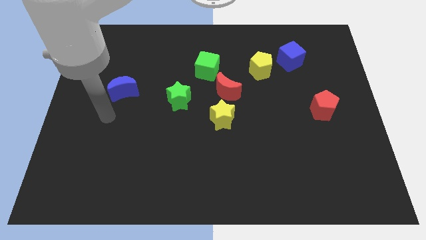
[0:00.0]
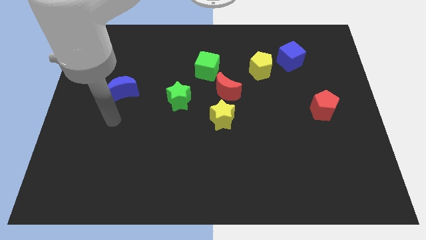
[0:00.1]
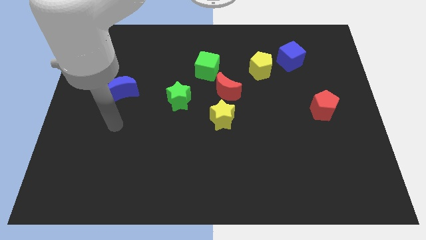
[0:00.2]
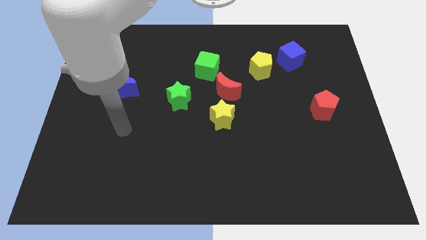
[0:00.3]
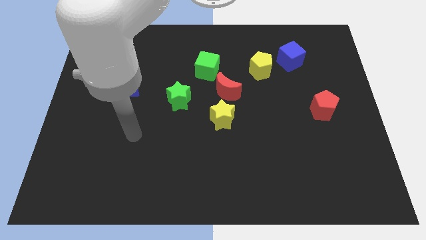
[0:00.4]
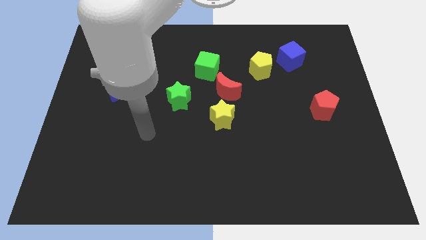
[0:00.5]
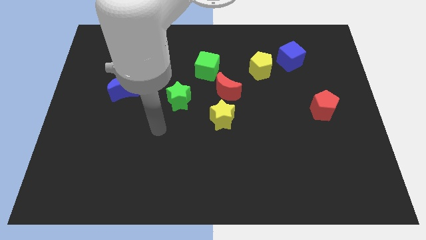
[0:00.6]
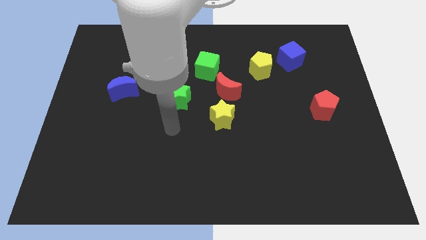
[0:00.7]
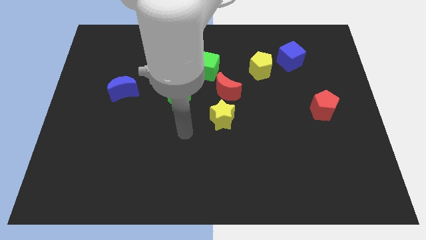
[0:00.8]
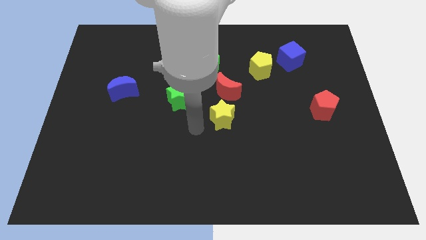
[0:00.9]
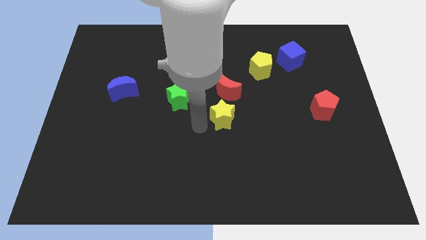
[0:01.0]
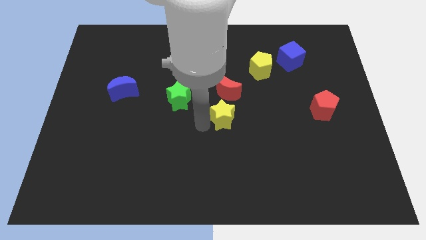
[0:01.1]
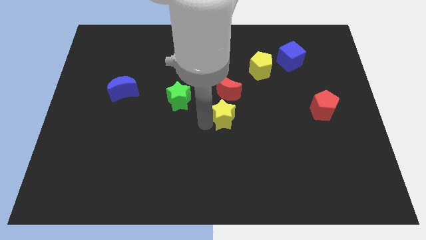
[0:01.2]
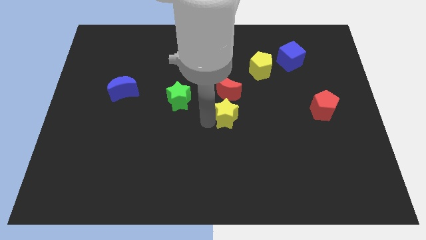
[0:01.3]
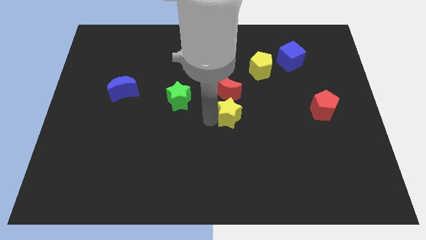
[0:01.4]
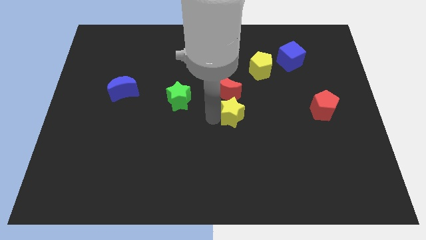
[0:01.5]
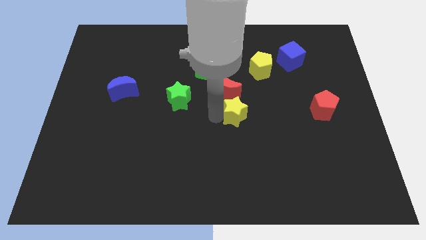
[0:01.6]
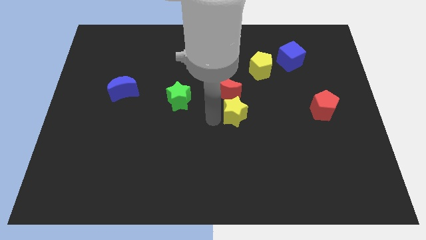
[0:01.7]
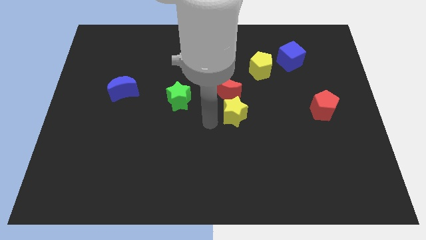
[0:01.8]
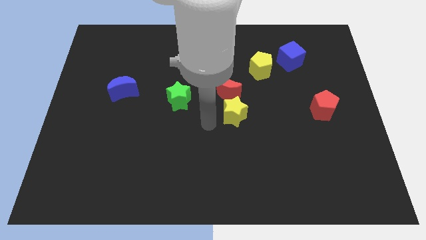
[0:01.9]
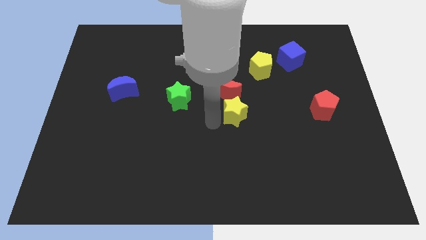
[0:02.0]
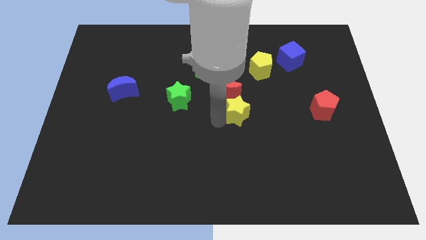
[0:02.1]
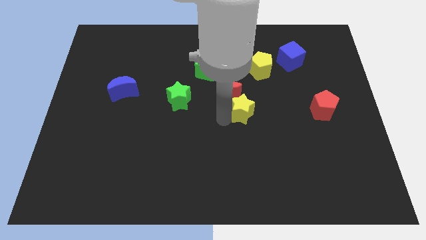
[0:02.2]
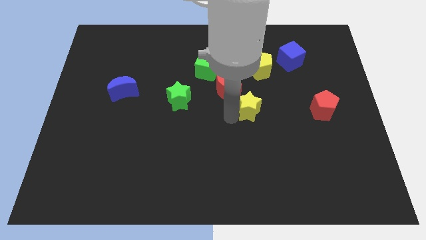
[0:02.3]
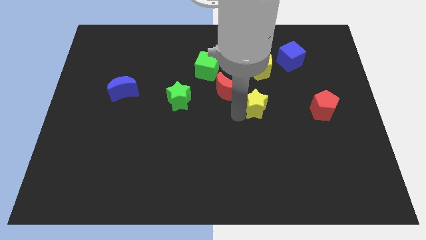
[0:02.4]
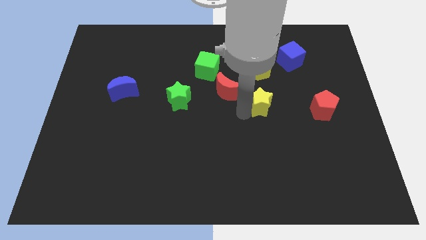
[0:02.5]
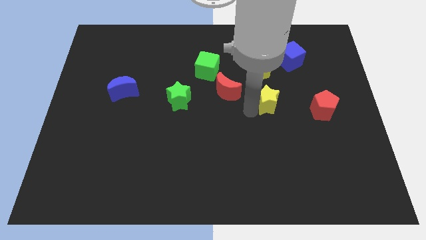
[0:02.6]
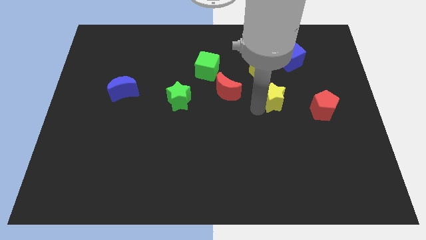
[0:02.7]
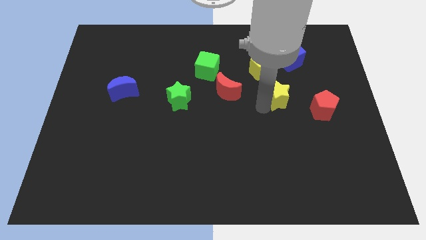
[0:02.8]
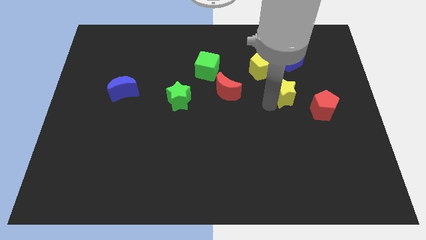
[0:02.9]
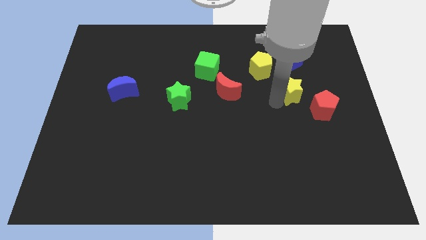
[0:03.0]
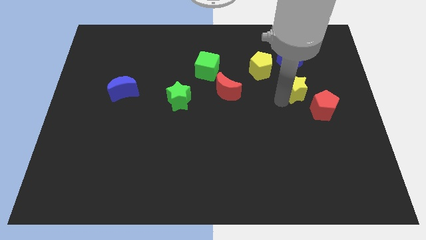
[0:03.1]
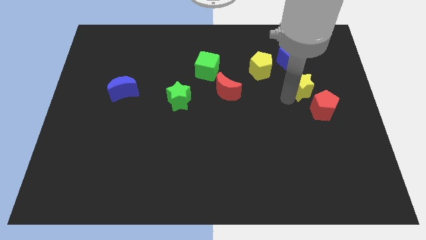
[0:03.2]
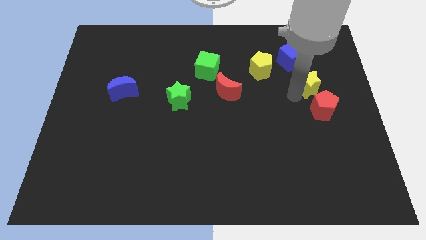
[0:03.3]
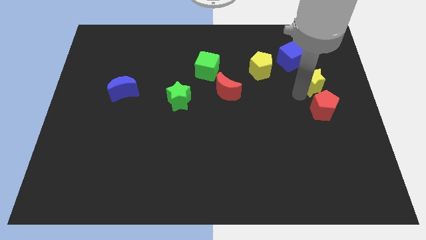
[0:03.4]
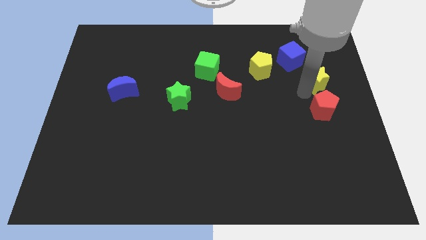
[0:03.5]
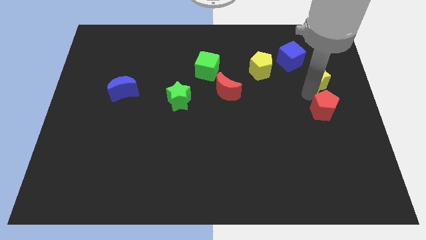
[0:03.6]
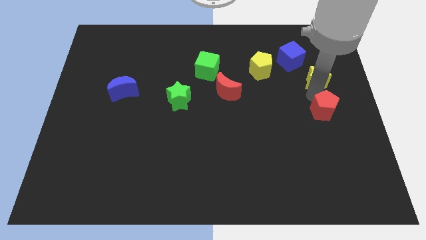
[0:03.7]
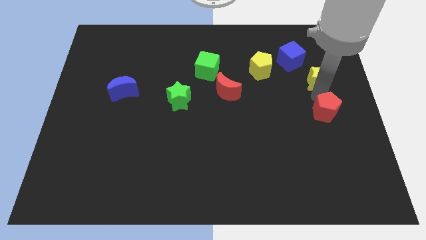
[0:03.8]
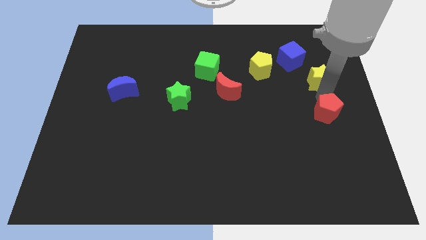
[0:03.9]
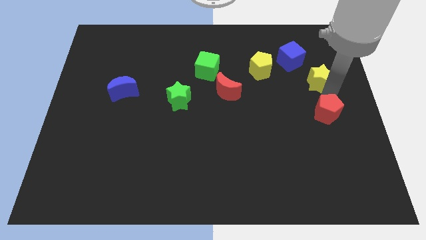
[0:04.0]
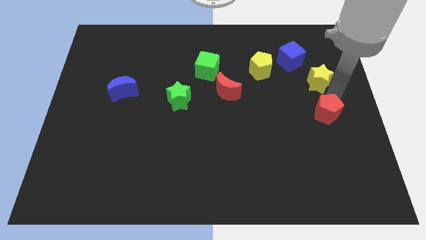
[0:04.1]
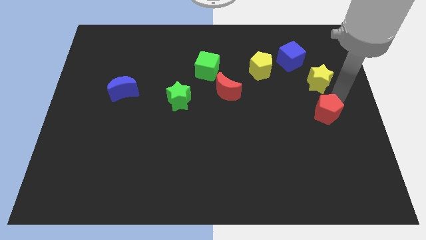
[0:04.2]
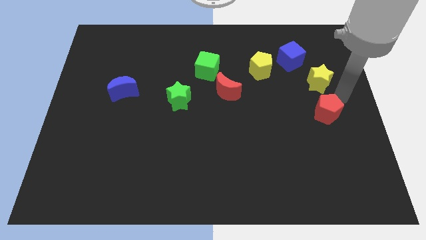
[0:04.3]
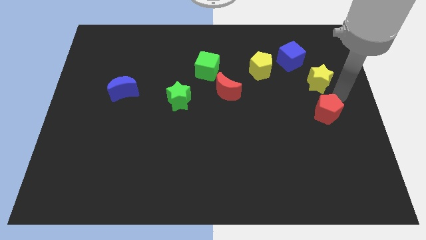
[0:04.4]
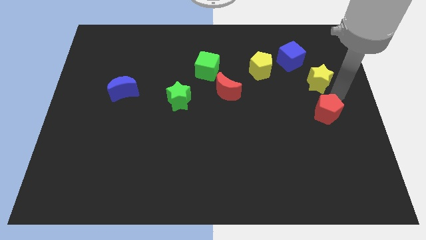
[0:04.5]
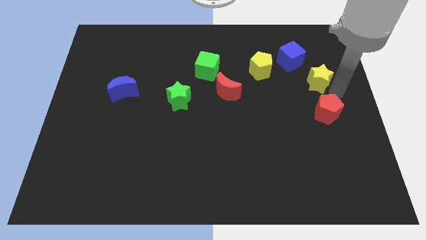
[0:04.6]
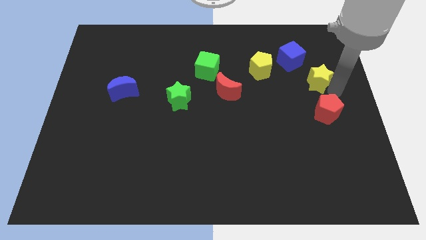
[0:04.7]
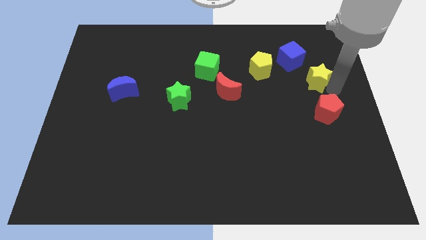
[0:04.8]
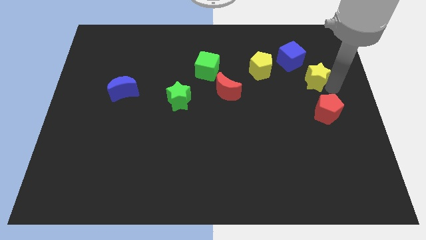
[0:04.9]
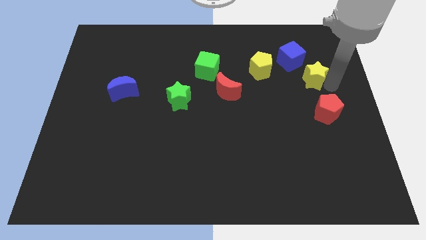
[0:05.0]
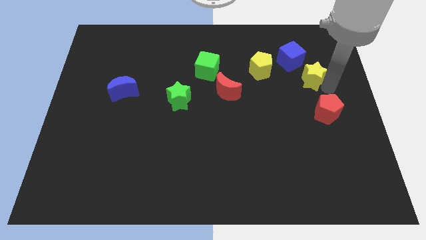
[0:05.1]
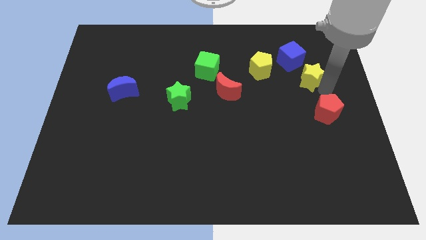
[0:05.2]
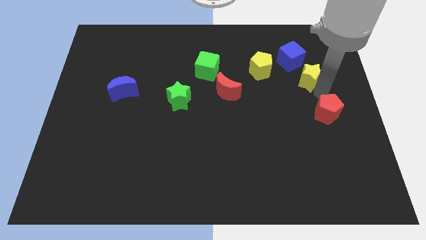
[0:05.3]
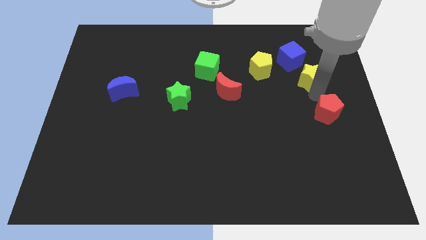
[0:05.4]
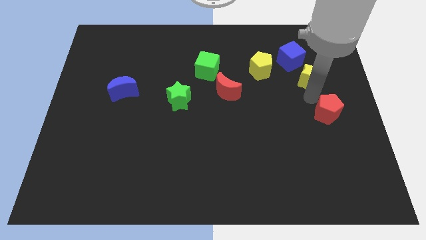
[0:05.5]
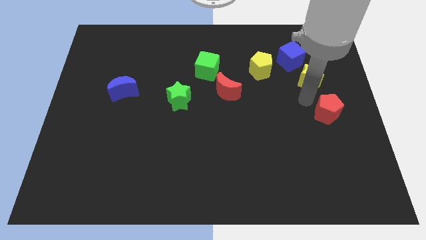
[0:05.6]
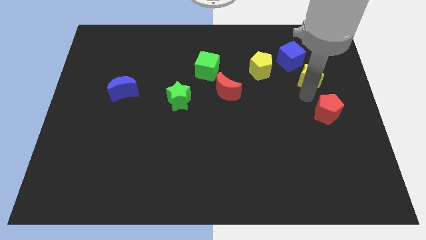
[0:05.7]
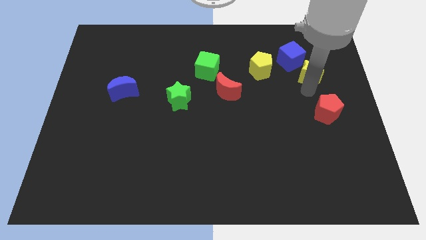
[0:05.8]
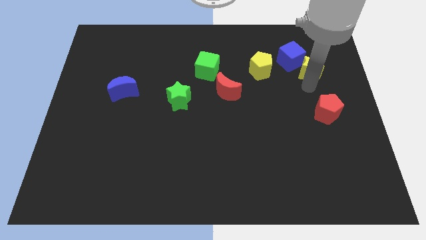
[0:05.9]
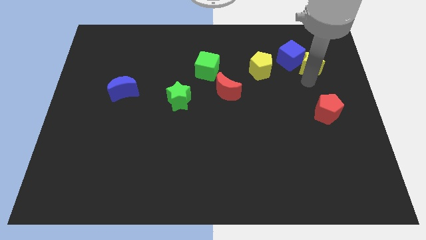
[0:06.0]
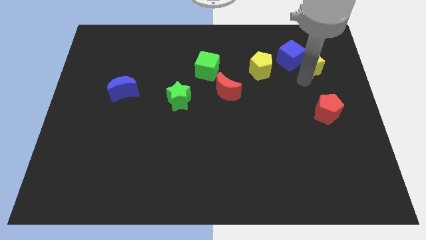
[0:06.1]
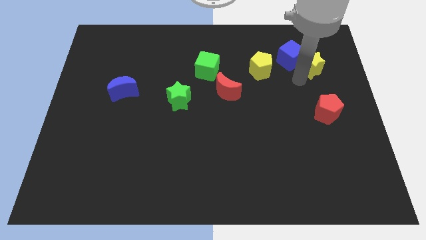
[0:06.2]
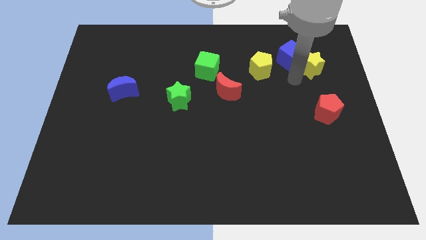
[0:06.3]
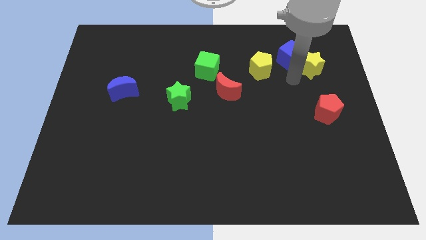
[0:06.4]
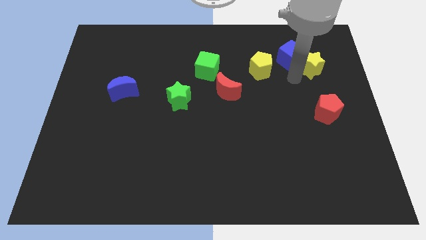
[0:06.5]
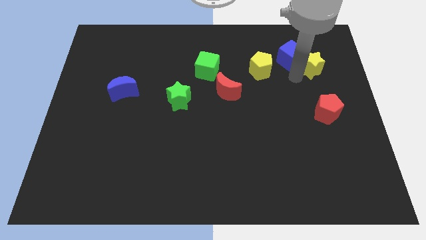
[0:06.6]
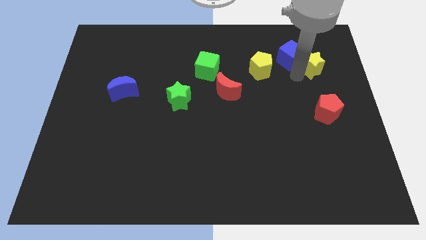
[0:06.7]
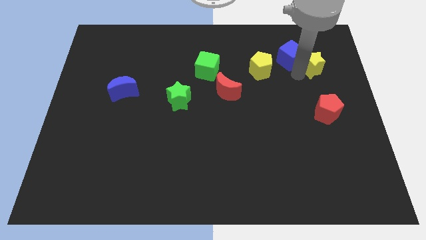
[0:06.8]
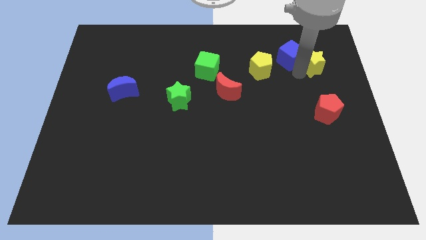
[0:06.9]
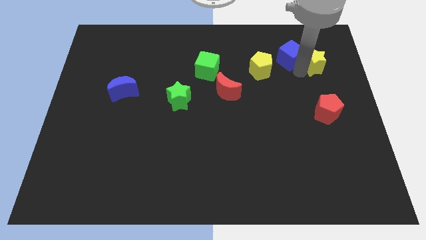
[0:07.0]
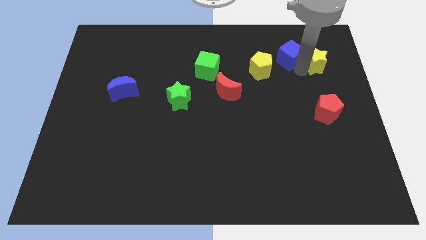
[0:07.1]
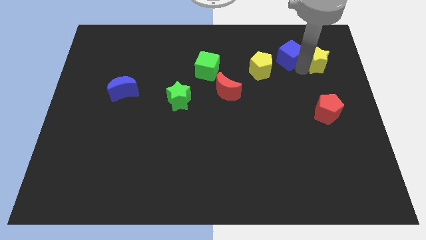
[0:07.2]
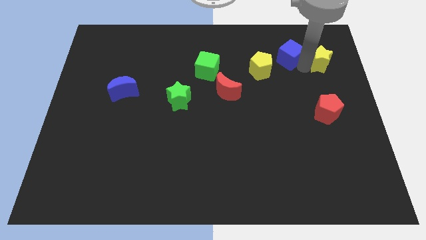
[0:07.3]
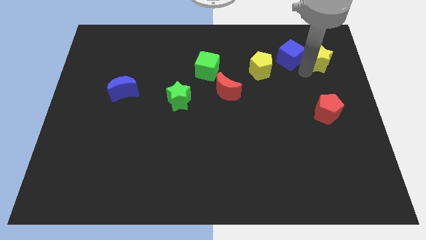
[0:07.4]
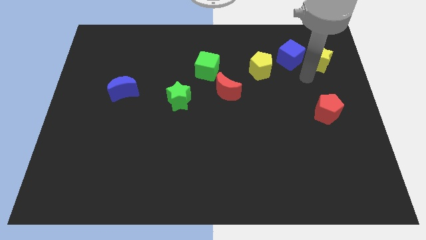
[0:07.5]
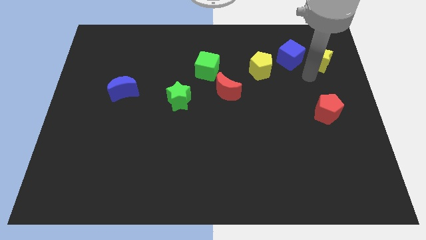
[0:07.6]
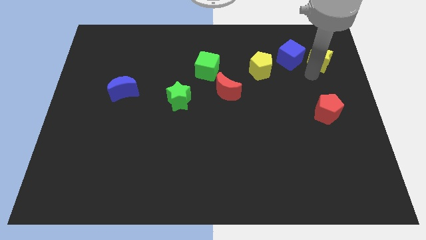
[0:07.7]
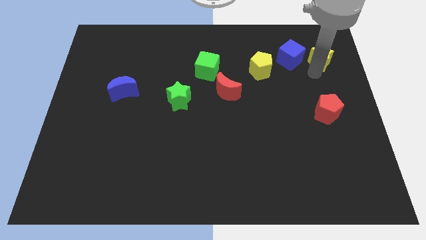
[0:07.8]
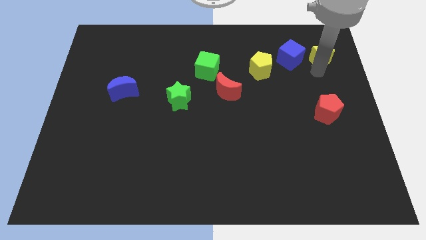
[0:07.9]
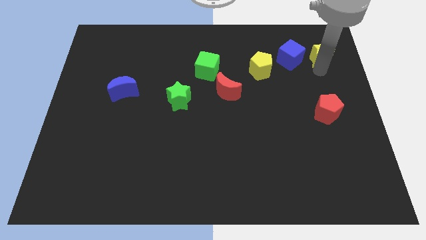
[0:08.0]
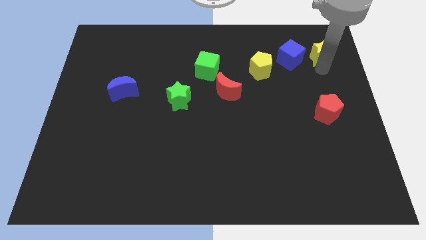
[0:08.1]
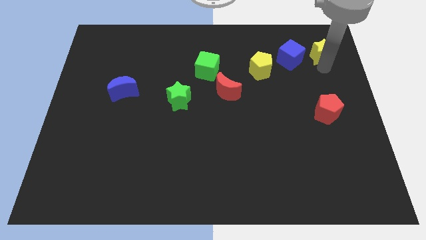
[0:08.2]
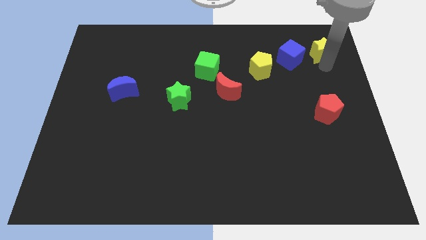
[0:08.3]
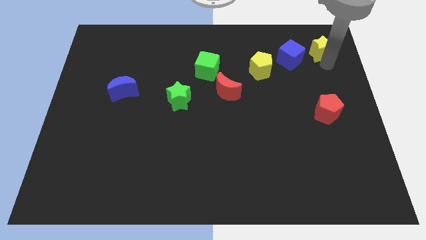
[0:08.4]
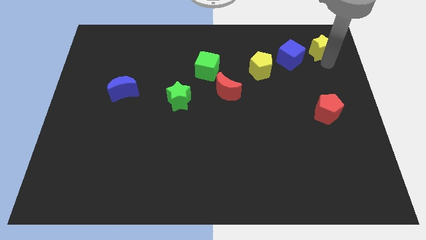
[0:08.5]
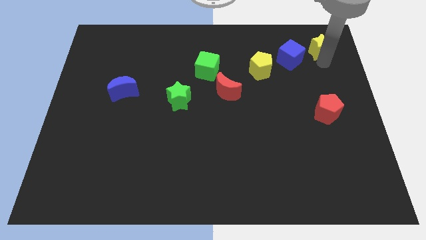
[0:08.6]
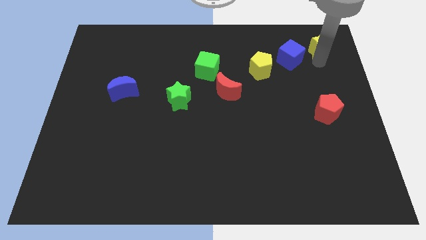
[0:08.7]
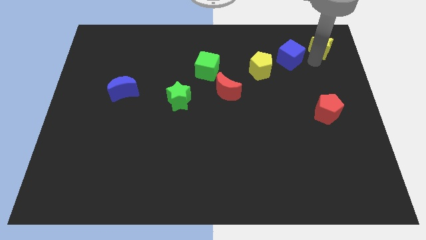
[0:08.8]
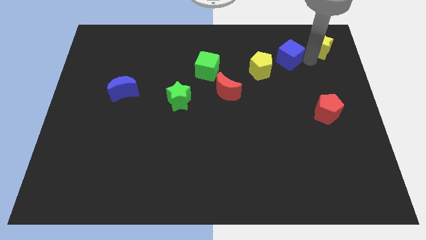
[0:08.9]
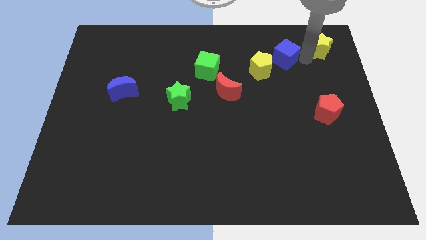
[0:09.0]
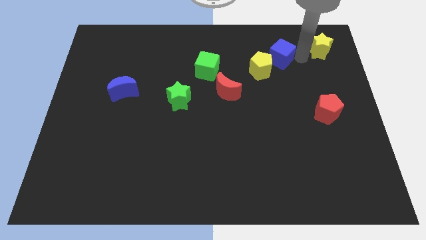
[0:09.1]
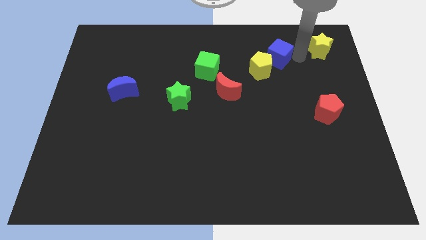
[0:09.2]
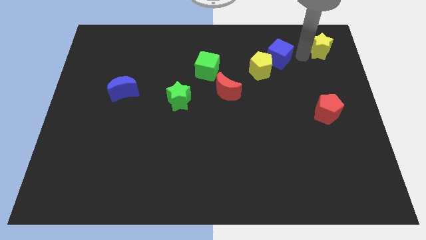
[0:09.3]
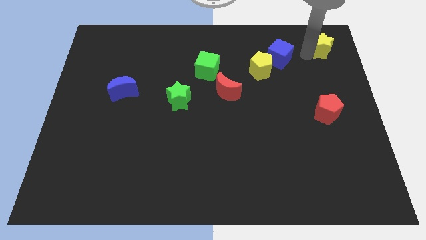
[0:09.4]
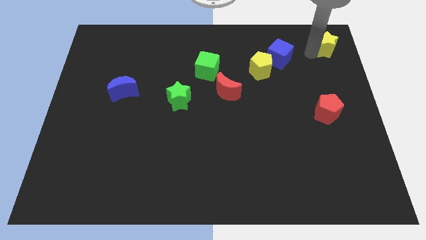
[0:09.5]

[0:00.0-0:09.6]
push the yellow star to the top right of the board
